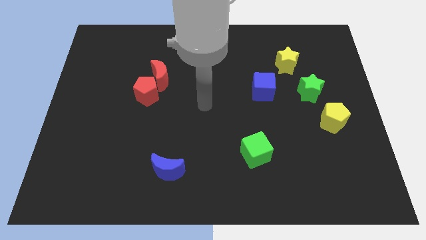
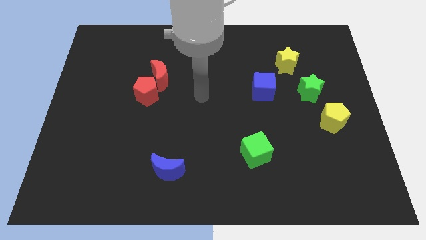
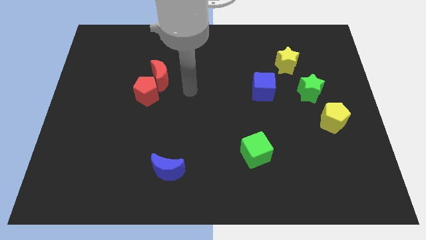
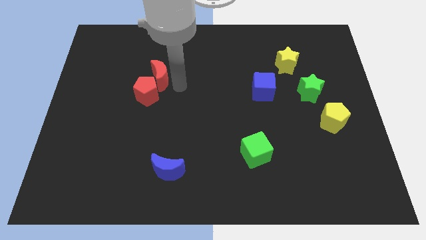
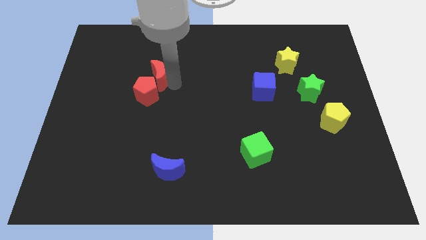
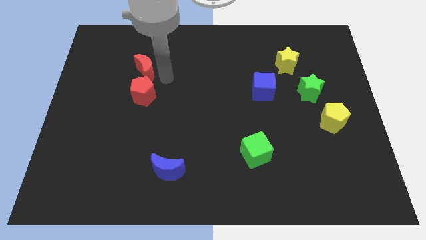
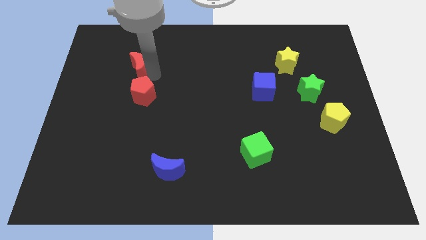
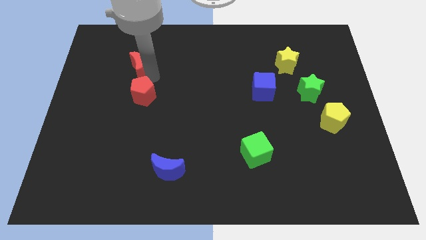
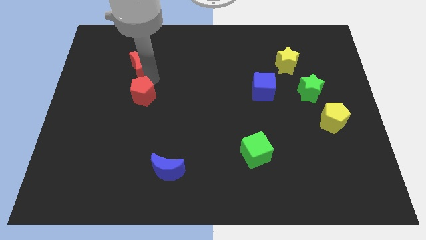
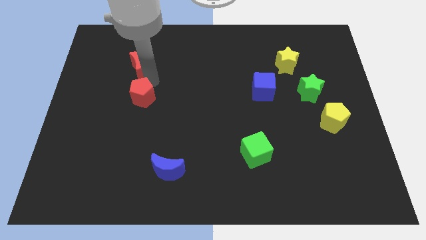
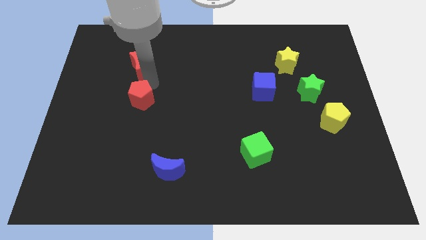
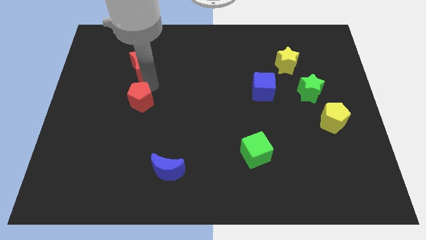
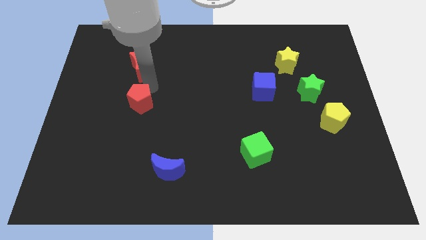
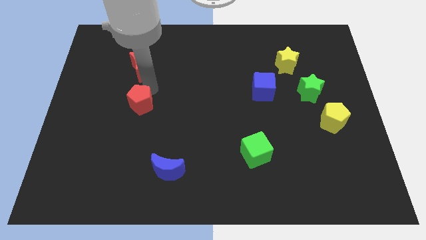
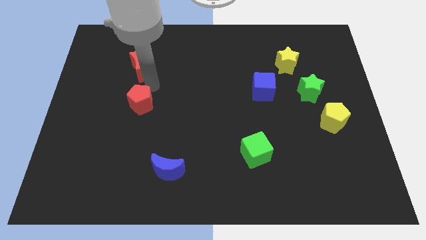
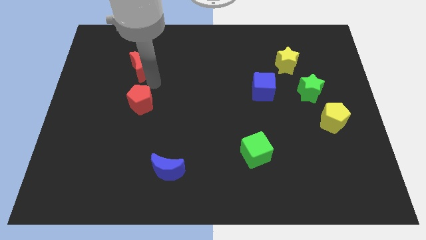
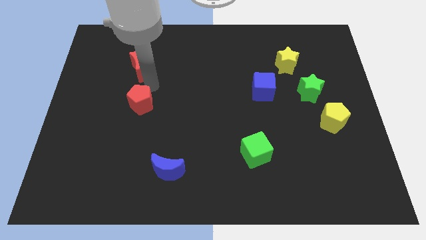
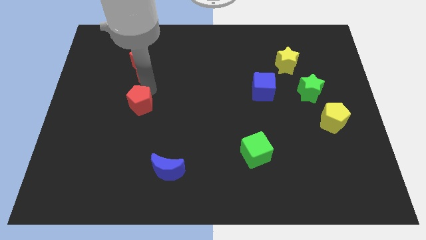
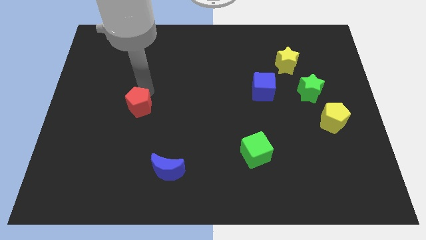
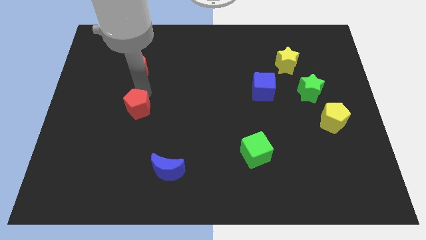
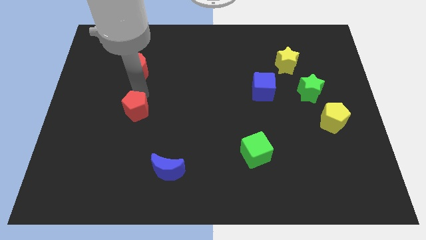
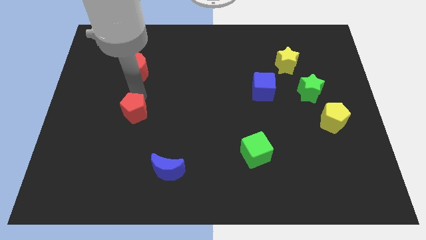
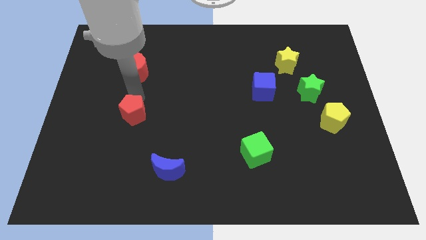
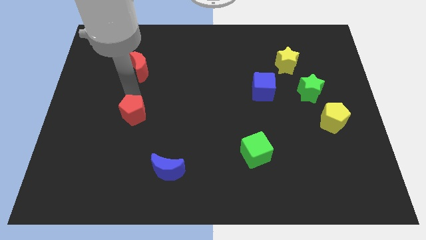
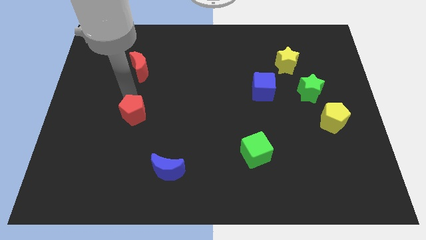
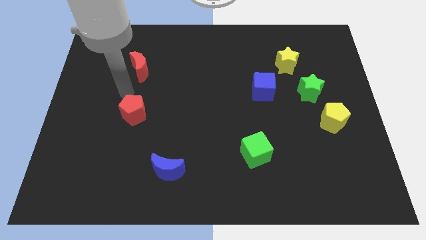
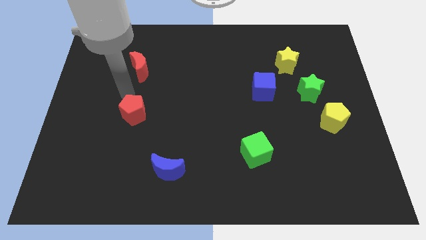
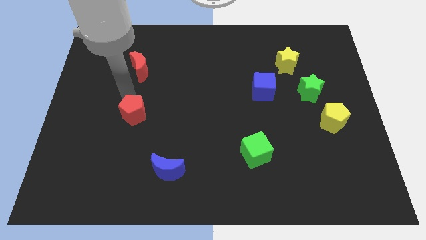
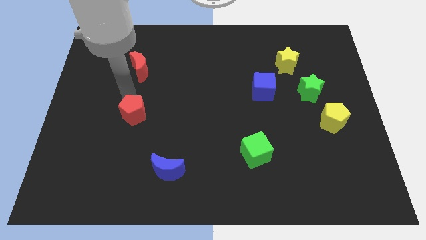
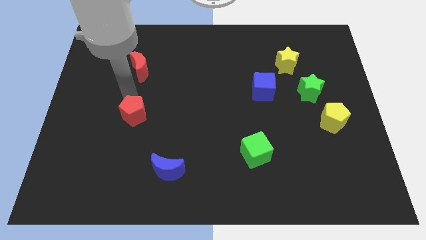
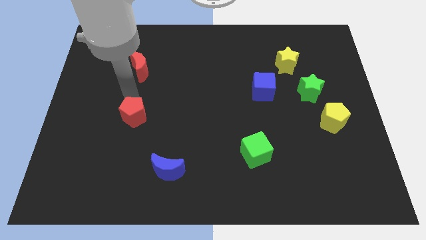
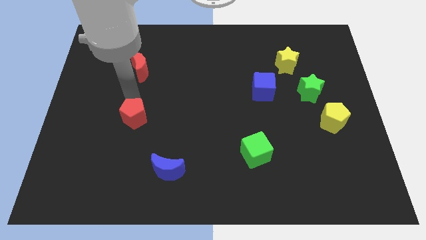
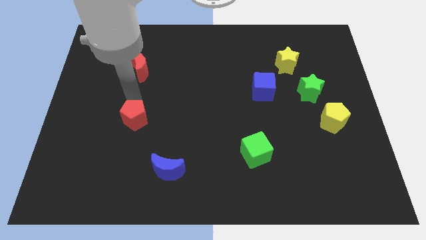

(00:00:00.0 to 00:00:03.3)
slightly slide the red pentagon downwards

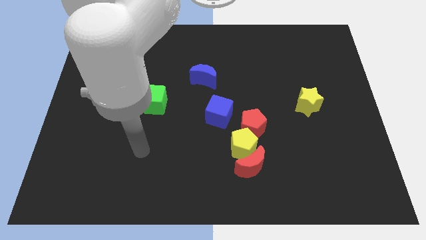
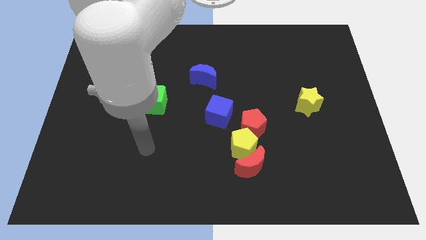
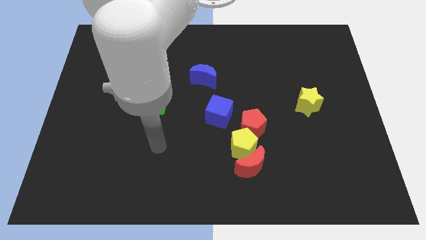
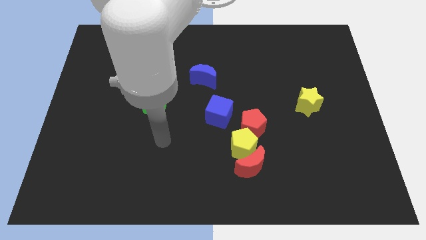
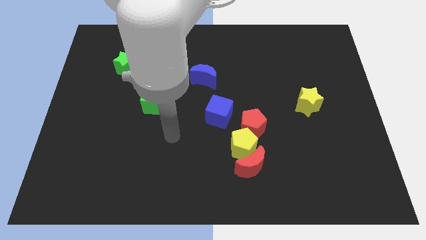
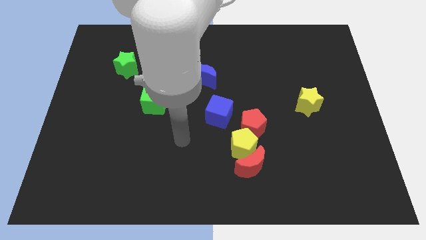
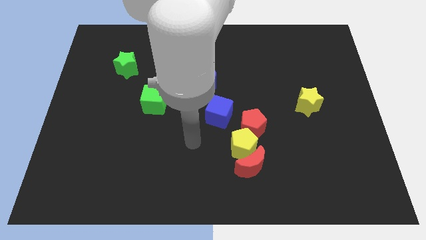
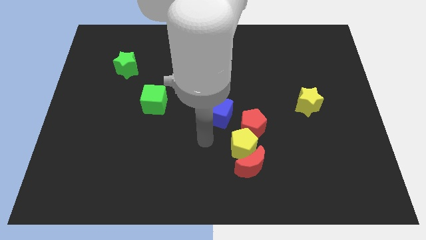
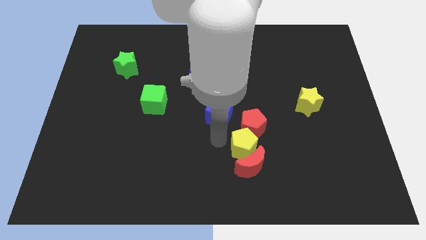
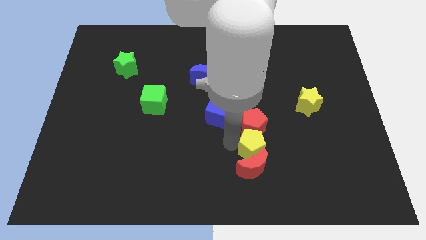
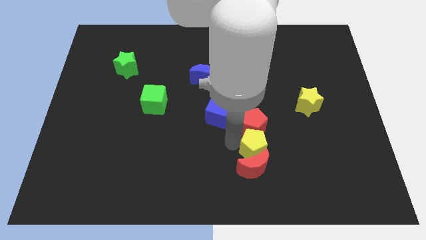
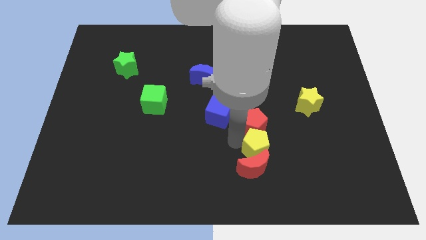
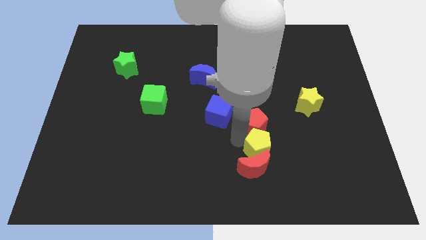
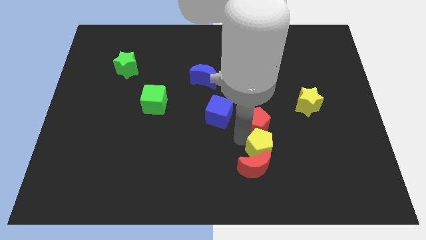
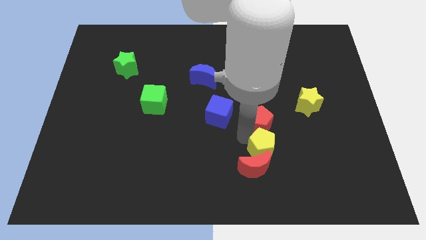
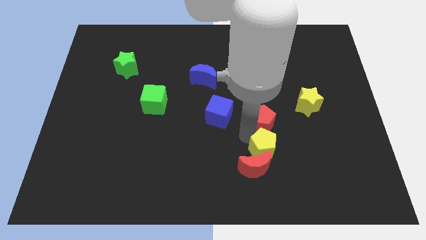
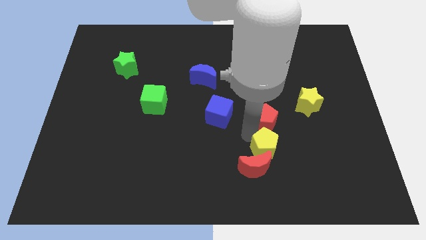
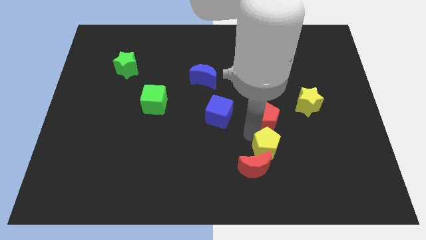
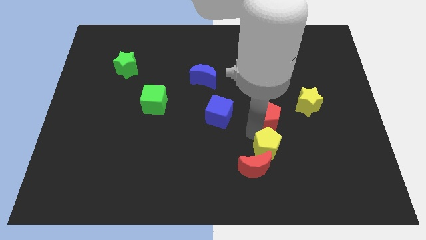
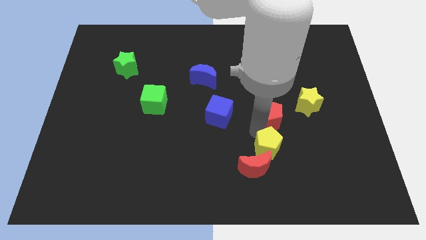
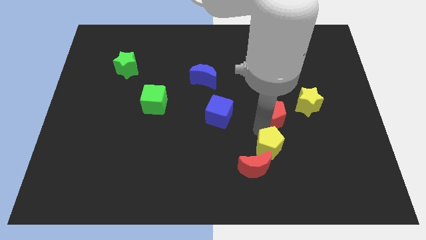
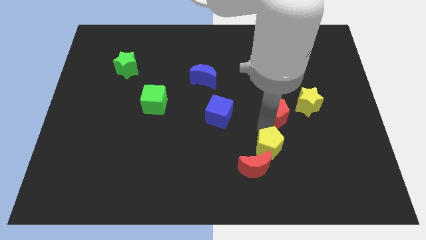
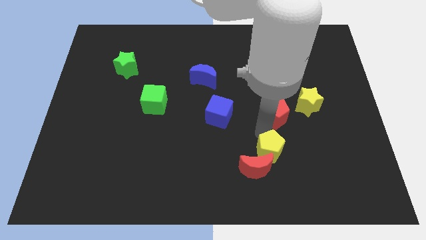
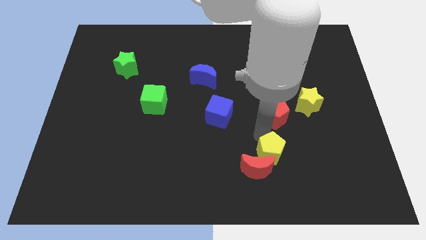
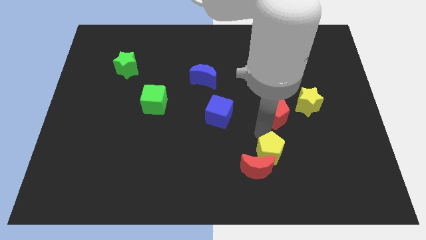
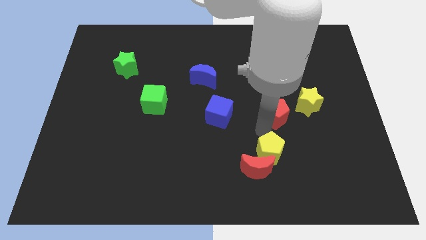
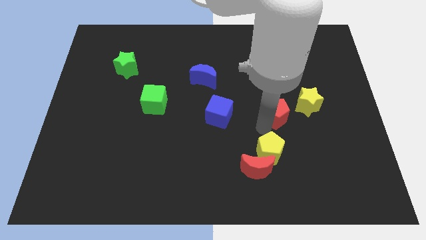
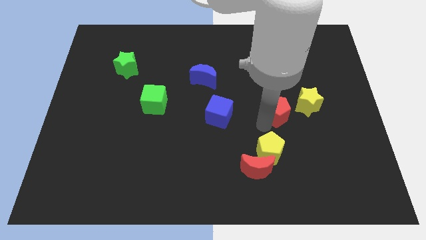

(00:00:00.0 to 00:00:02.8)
slightly slide the red pentagon up and then to the right

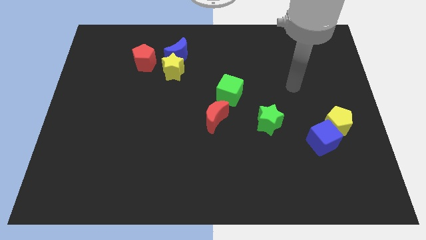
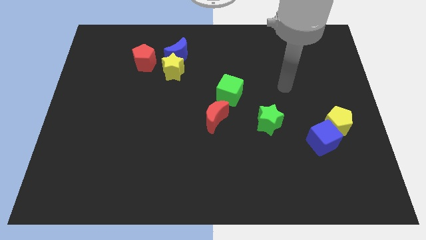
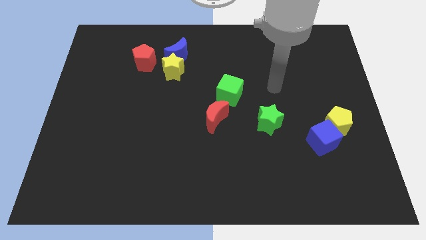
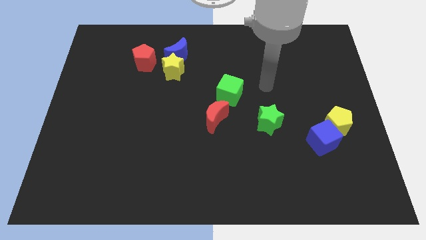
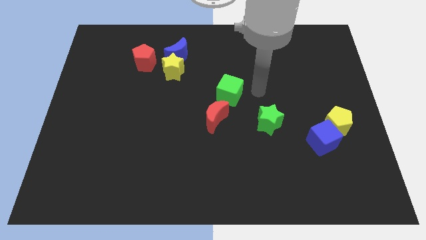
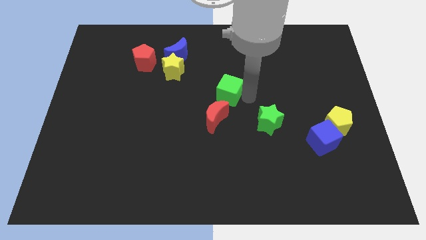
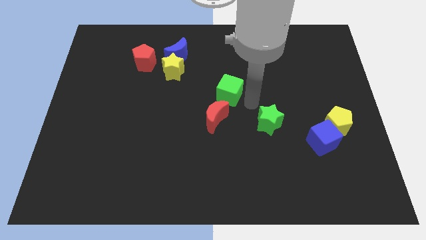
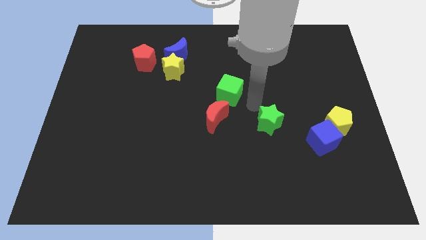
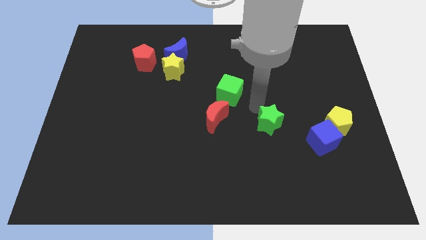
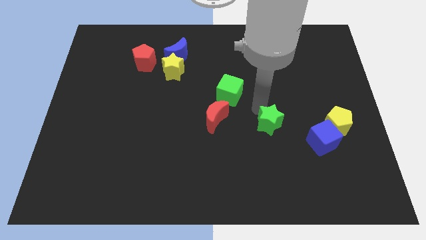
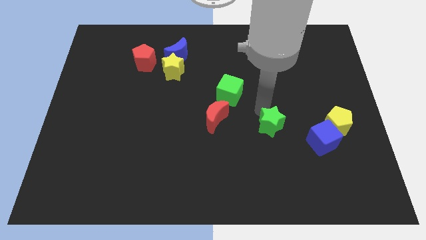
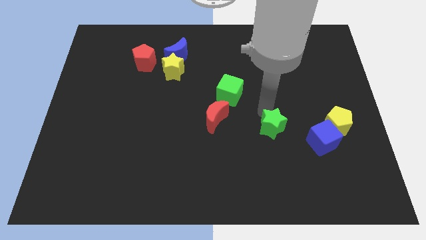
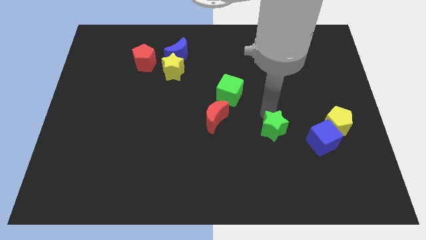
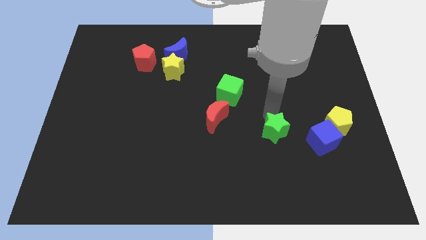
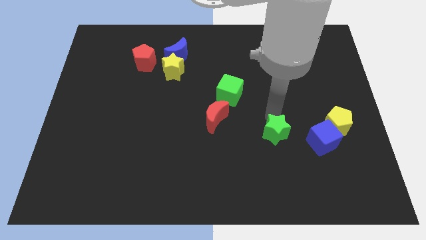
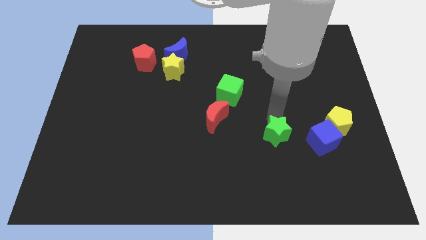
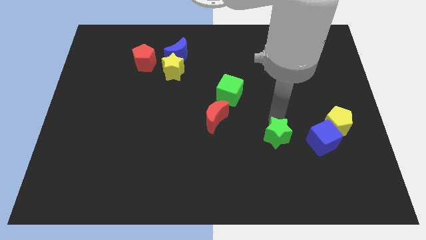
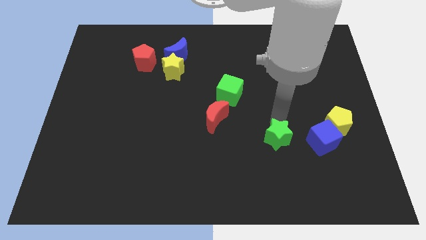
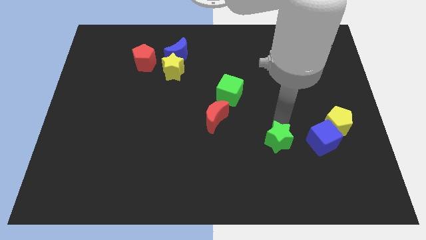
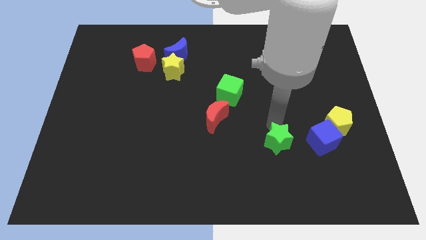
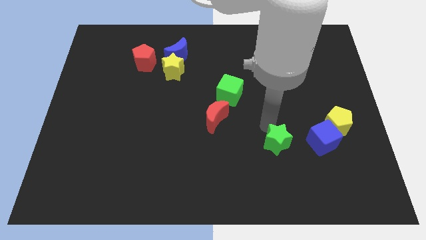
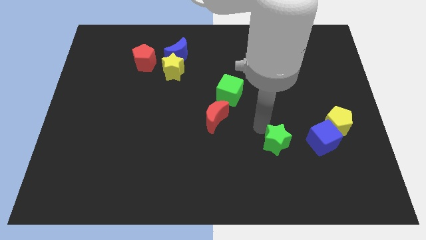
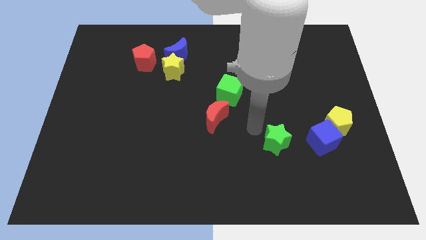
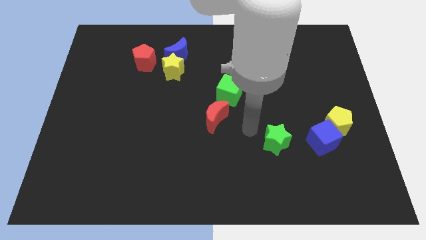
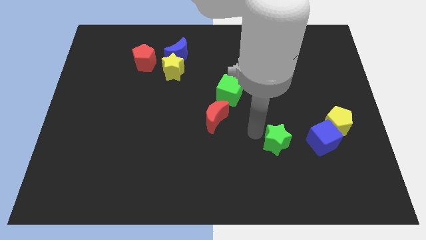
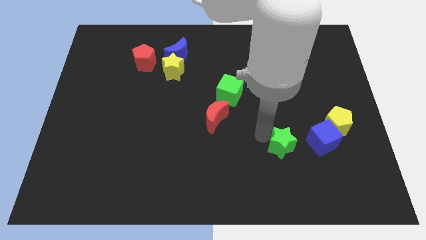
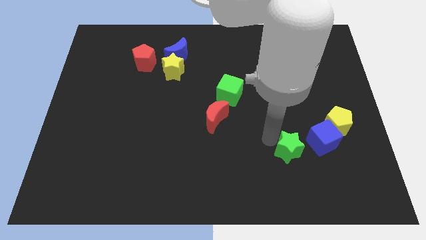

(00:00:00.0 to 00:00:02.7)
slightly move the green star downwards and to the right
